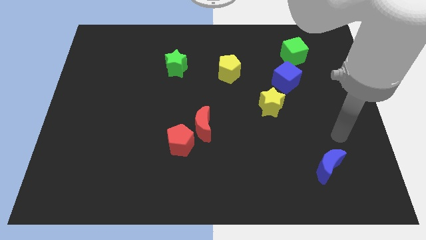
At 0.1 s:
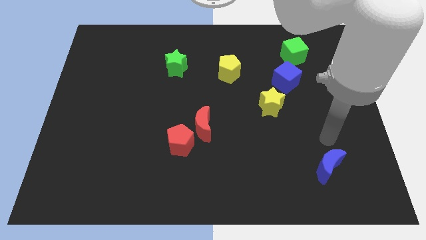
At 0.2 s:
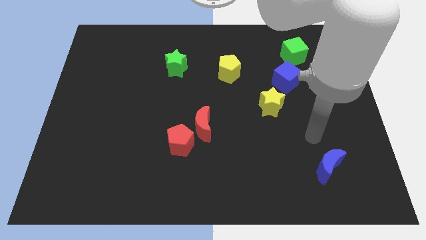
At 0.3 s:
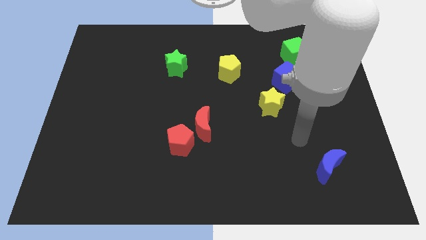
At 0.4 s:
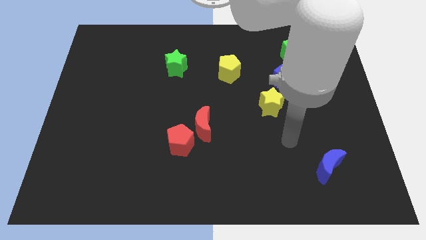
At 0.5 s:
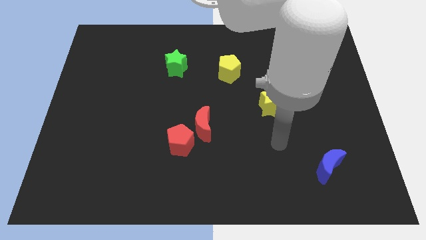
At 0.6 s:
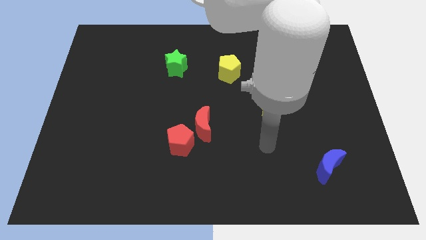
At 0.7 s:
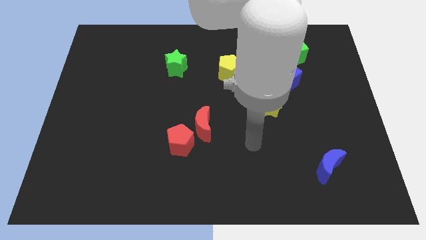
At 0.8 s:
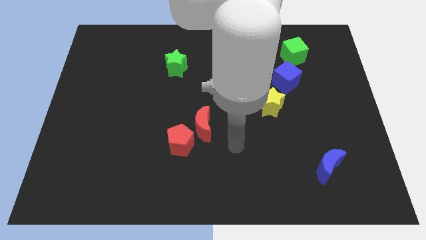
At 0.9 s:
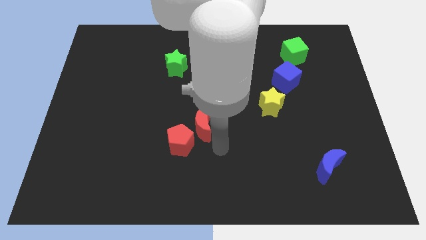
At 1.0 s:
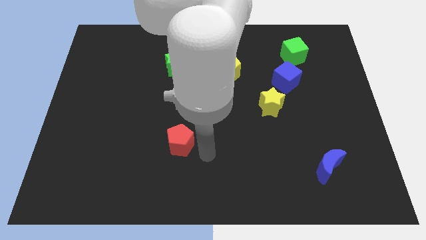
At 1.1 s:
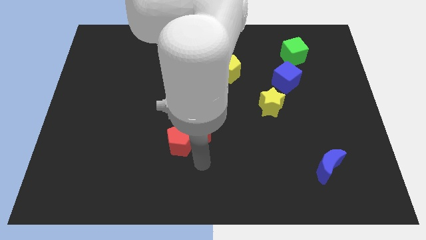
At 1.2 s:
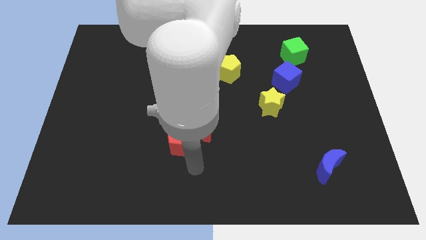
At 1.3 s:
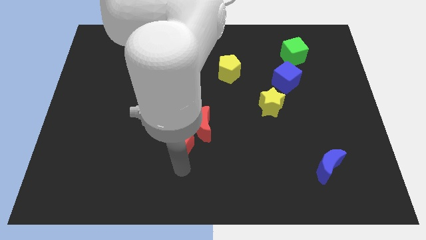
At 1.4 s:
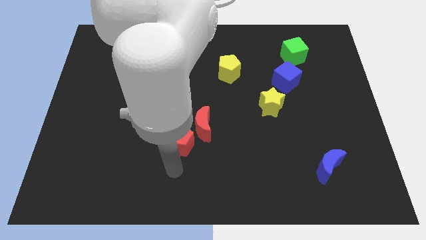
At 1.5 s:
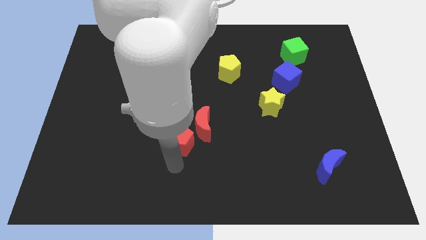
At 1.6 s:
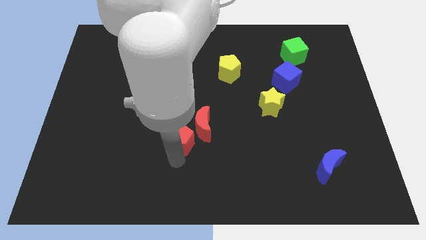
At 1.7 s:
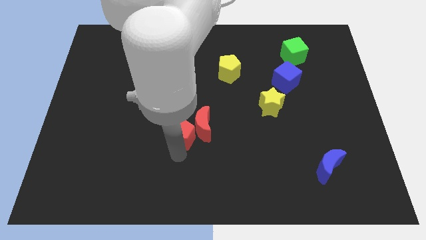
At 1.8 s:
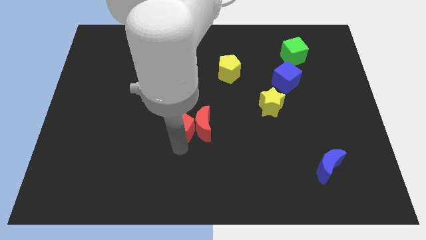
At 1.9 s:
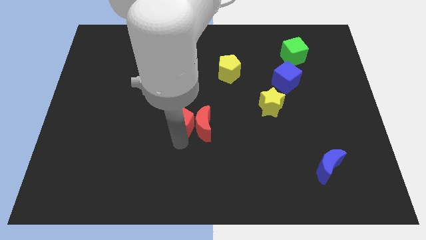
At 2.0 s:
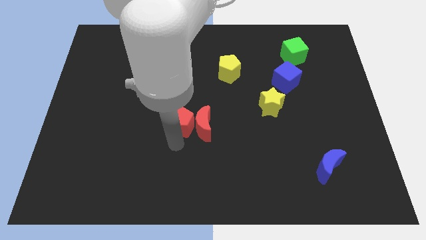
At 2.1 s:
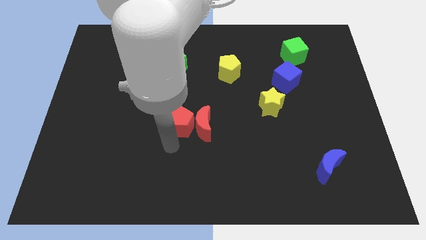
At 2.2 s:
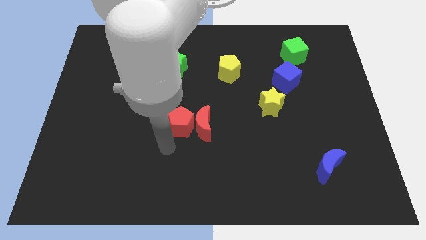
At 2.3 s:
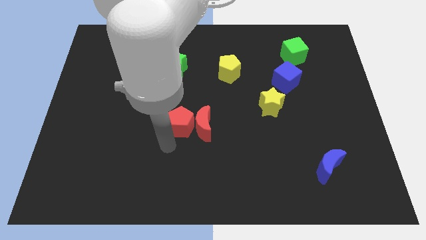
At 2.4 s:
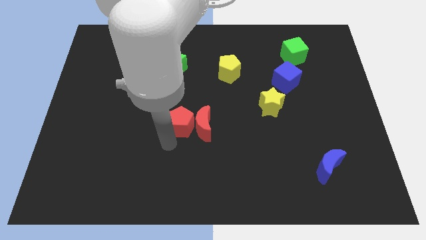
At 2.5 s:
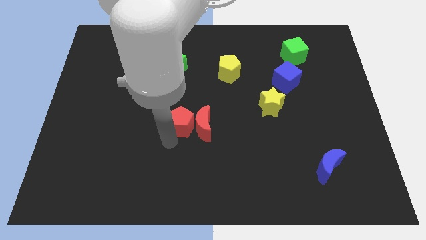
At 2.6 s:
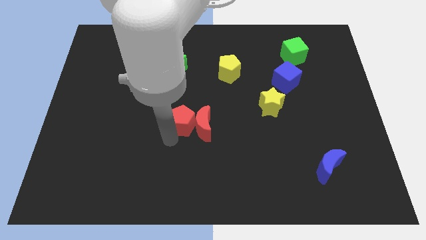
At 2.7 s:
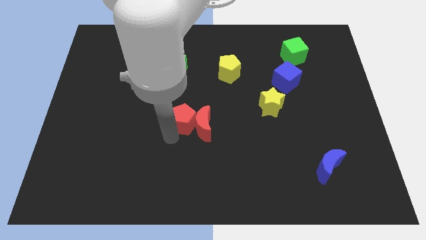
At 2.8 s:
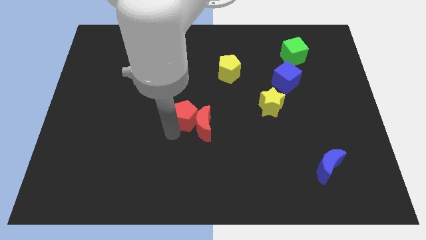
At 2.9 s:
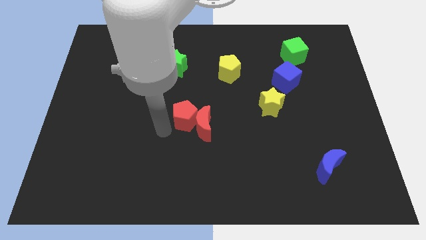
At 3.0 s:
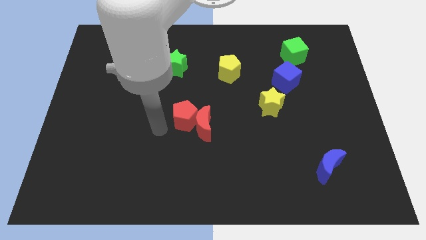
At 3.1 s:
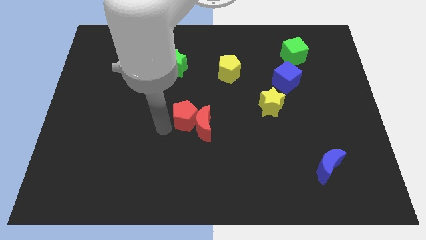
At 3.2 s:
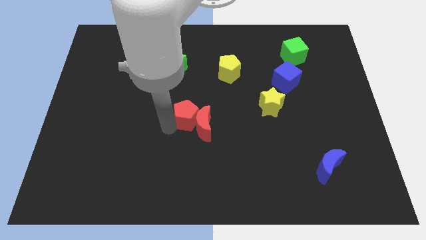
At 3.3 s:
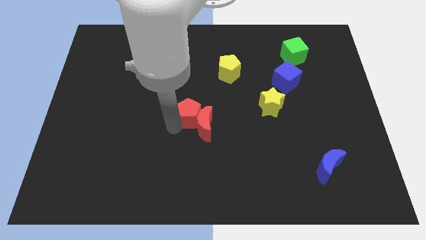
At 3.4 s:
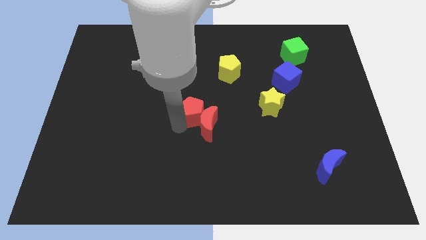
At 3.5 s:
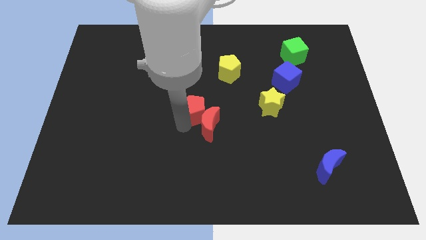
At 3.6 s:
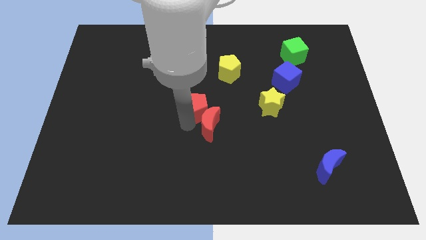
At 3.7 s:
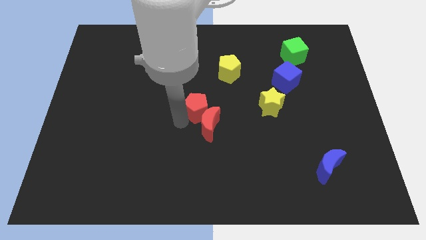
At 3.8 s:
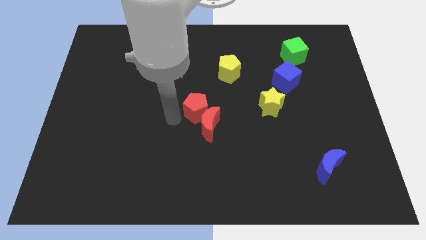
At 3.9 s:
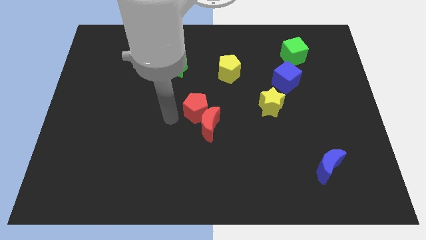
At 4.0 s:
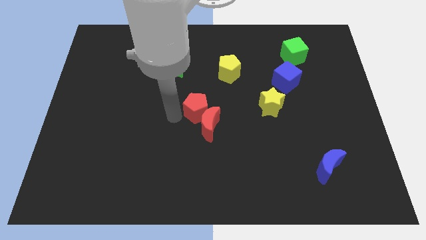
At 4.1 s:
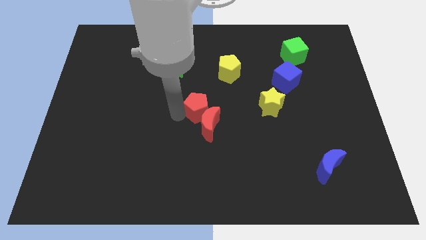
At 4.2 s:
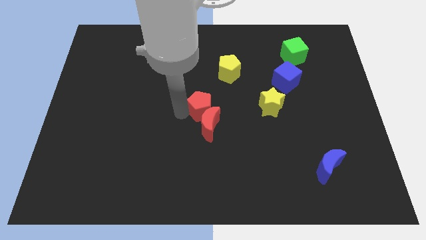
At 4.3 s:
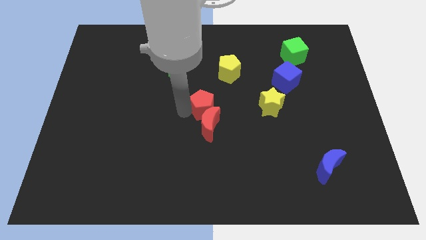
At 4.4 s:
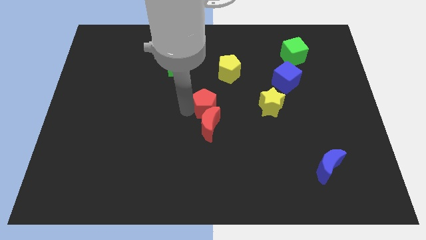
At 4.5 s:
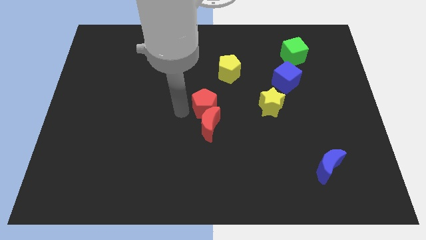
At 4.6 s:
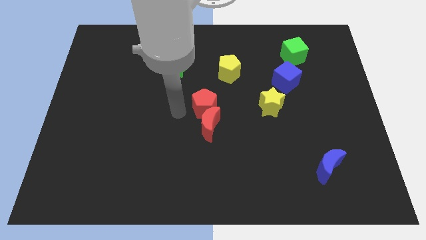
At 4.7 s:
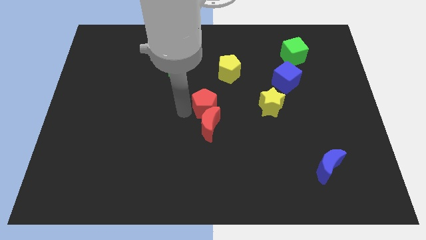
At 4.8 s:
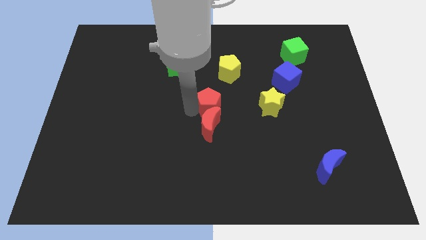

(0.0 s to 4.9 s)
push the red pentagon to the bottom side of the yellow pentagon
